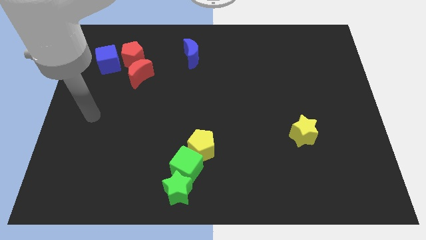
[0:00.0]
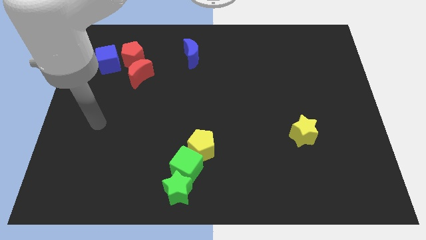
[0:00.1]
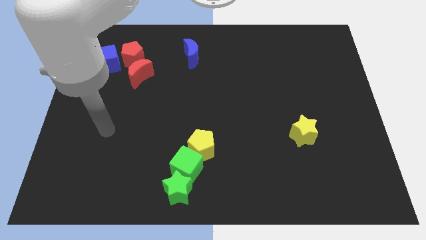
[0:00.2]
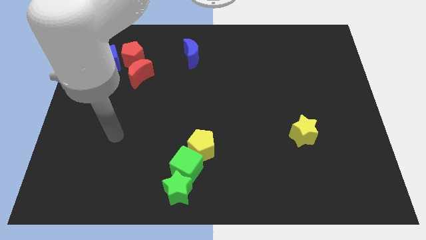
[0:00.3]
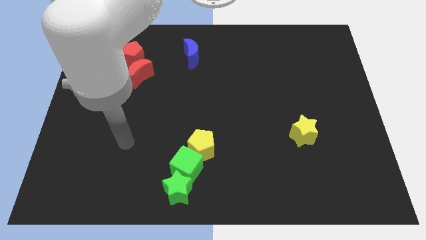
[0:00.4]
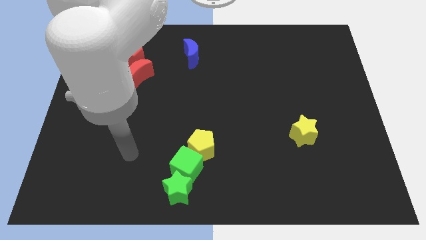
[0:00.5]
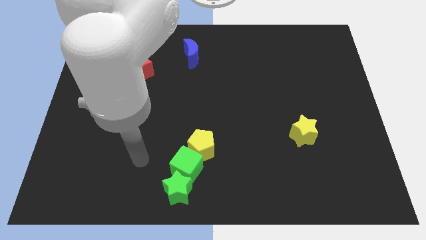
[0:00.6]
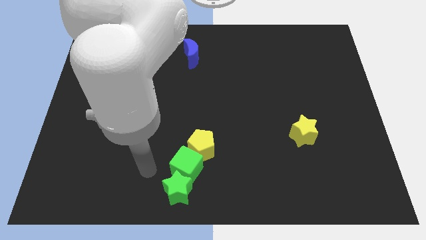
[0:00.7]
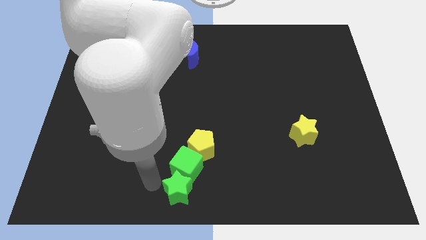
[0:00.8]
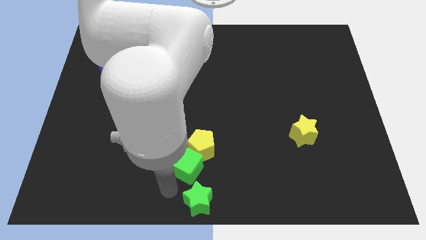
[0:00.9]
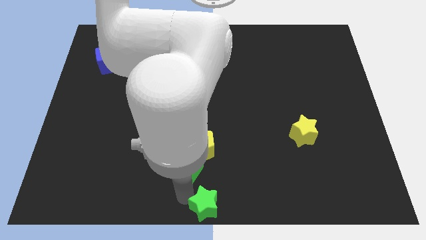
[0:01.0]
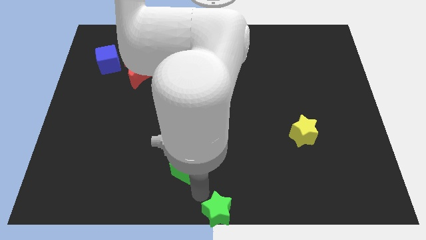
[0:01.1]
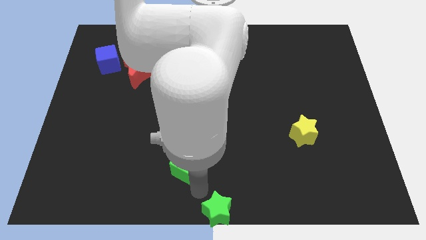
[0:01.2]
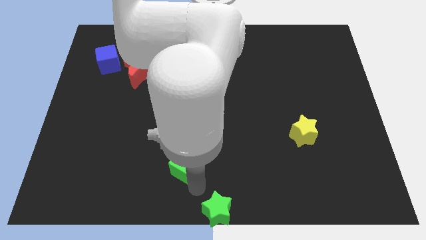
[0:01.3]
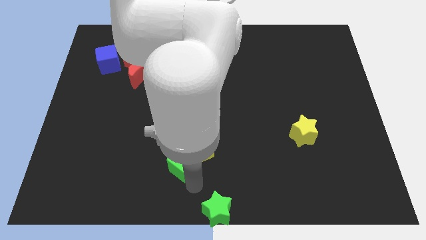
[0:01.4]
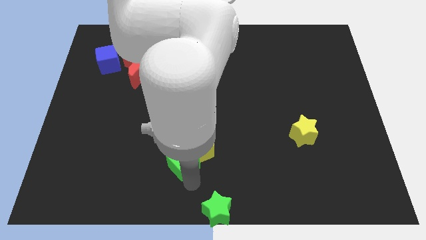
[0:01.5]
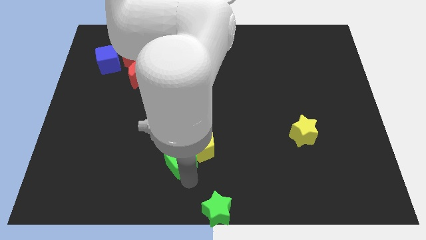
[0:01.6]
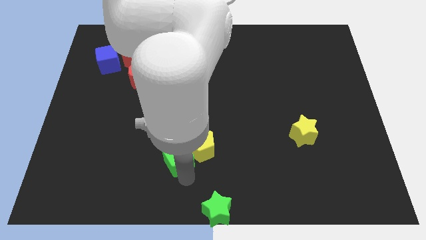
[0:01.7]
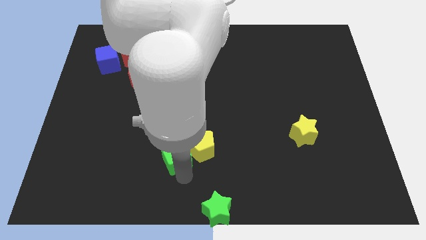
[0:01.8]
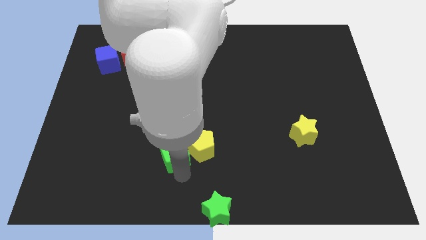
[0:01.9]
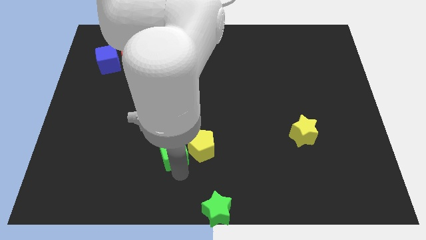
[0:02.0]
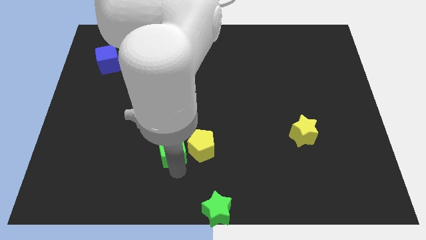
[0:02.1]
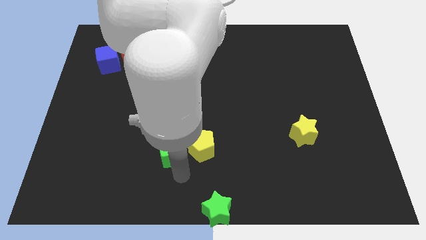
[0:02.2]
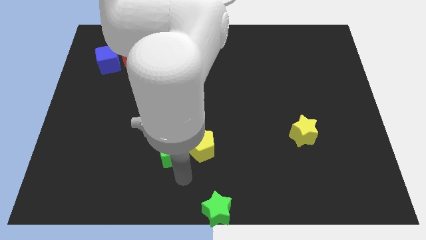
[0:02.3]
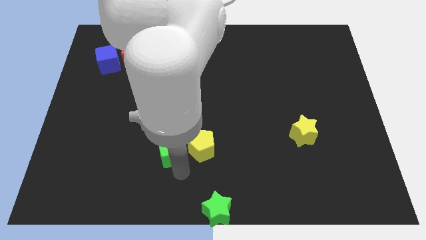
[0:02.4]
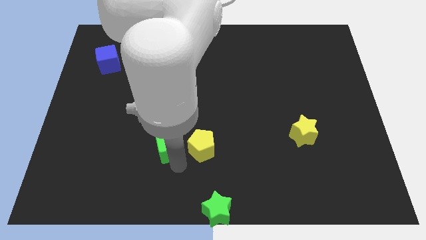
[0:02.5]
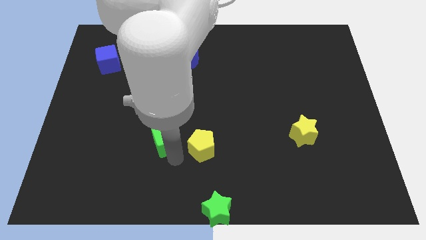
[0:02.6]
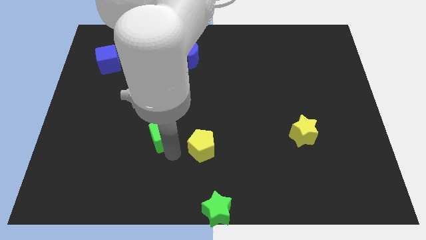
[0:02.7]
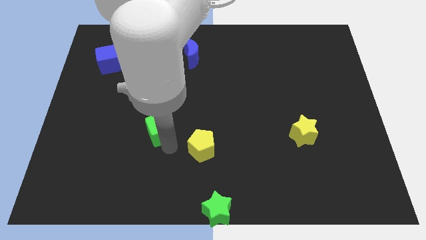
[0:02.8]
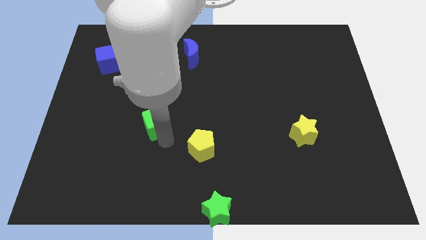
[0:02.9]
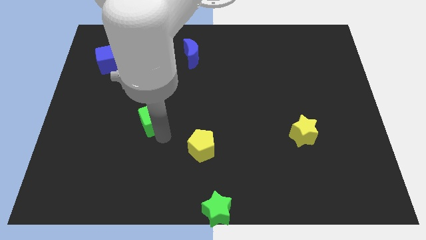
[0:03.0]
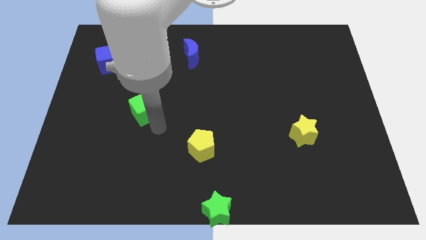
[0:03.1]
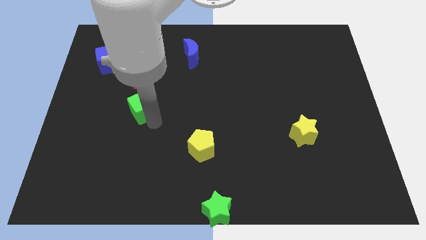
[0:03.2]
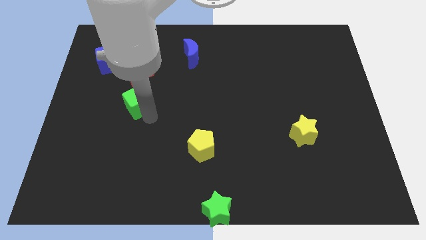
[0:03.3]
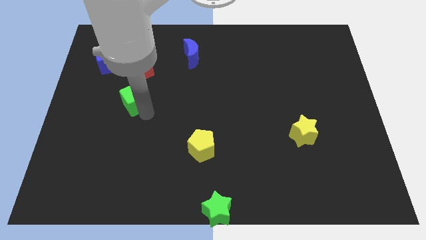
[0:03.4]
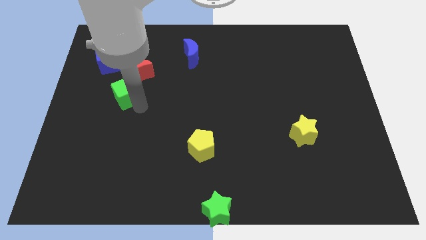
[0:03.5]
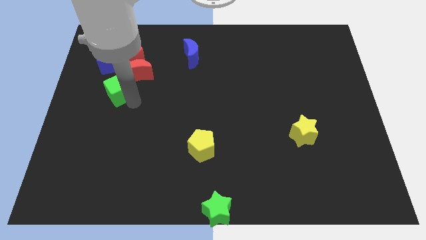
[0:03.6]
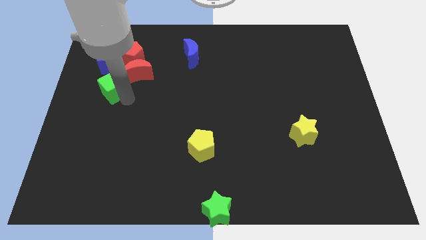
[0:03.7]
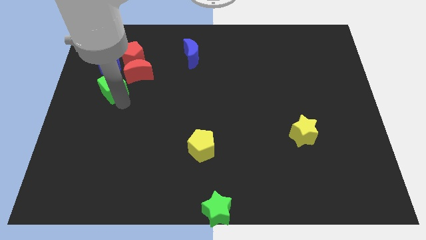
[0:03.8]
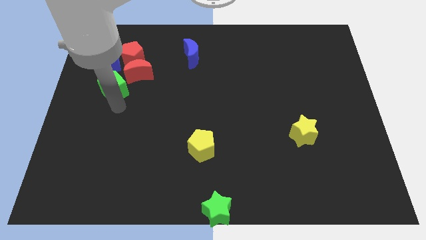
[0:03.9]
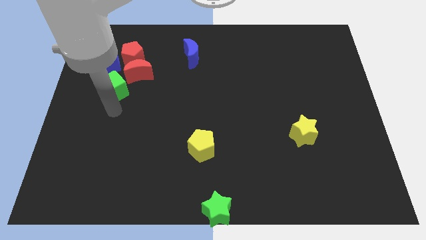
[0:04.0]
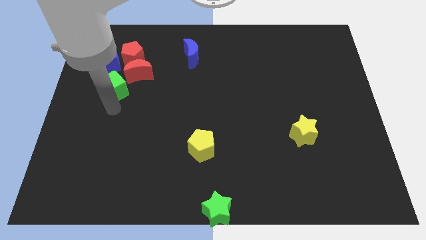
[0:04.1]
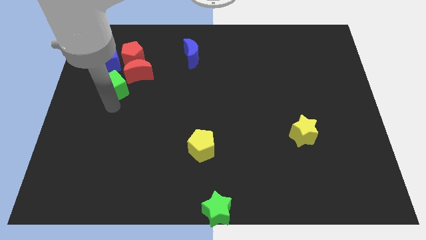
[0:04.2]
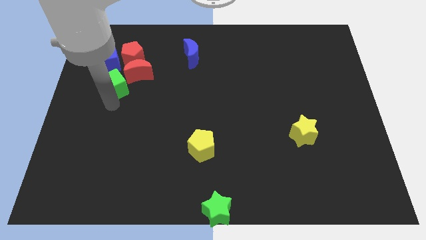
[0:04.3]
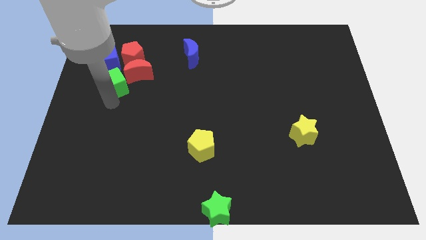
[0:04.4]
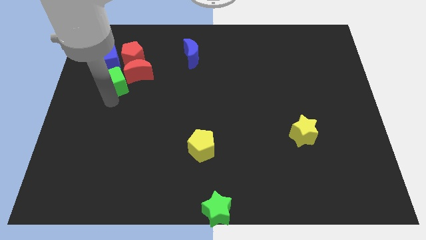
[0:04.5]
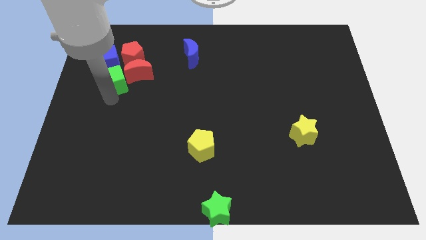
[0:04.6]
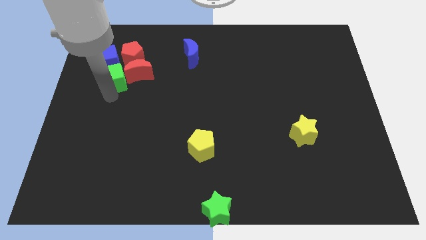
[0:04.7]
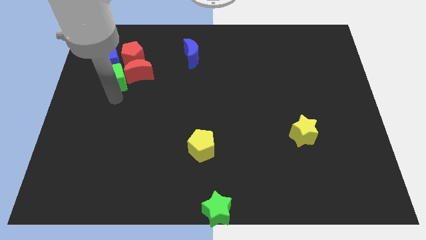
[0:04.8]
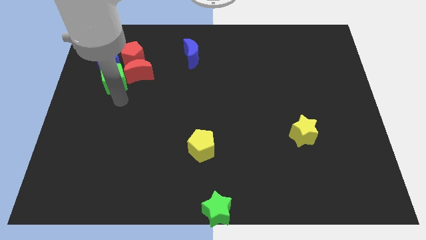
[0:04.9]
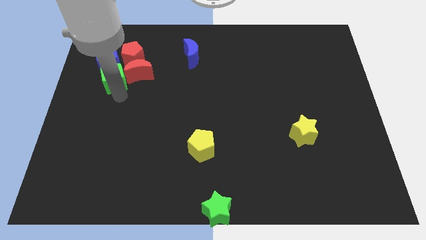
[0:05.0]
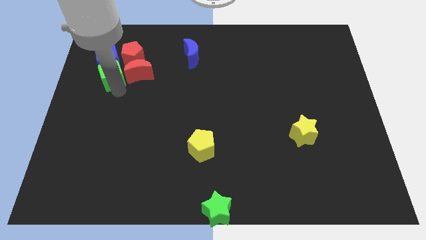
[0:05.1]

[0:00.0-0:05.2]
slide the green cube towards the blue cube

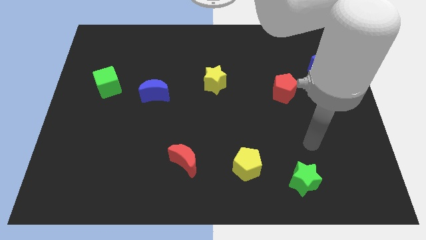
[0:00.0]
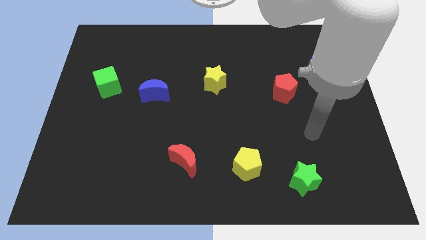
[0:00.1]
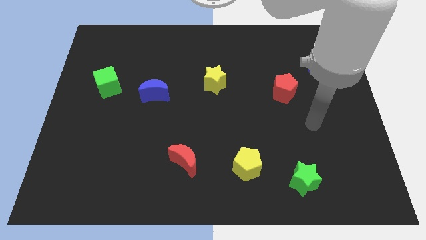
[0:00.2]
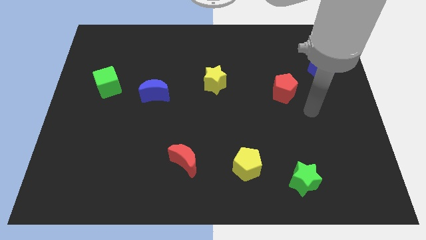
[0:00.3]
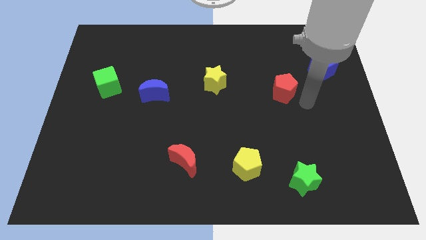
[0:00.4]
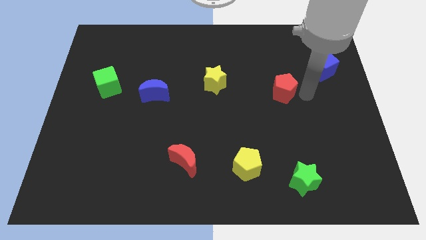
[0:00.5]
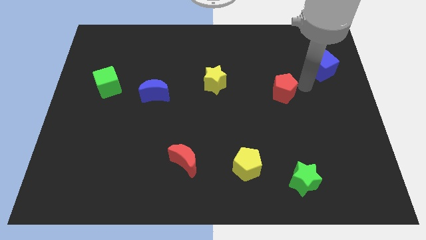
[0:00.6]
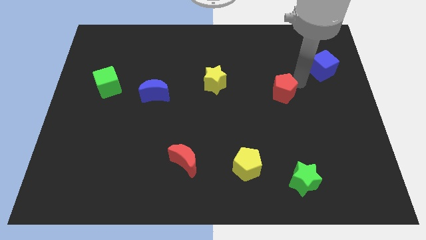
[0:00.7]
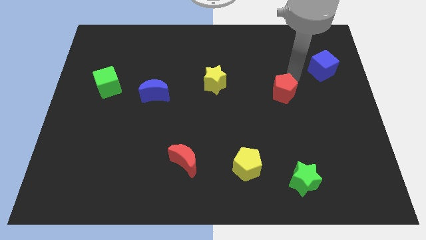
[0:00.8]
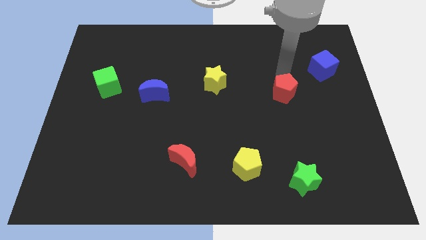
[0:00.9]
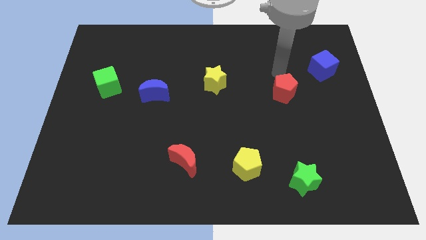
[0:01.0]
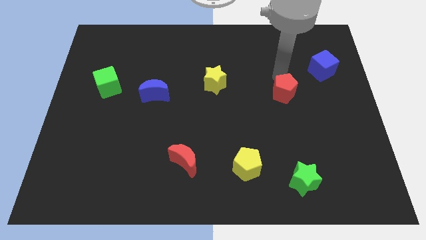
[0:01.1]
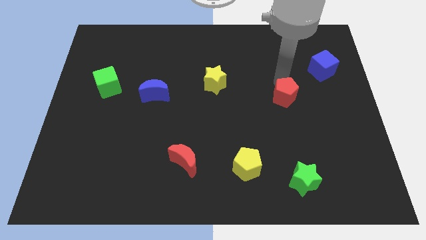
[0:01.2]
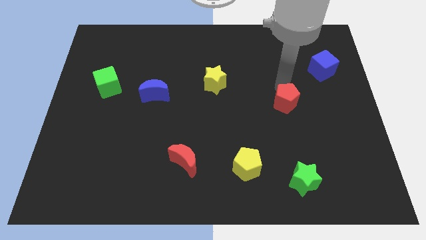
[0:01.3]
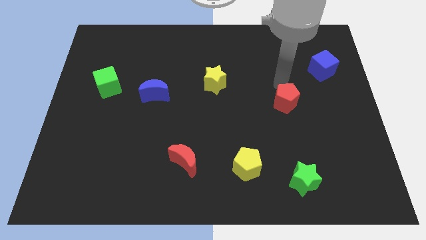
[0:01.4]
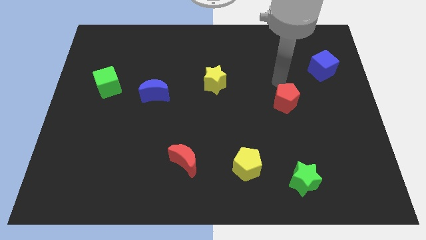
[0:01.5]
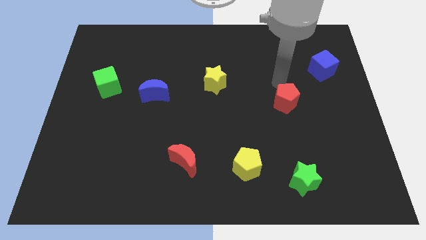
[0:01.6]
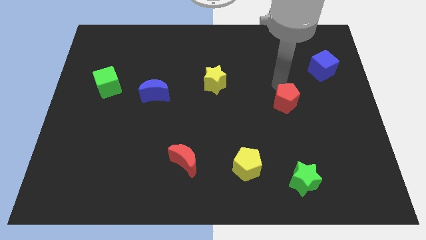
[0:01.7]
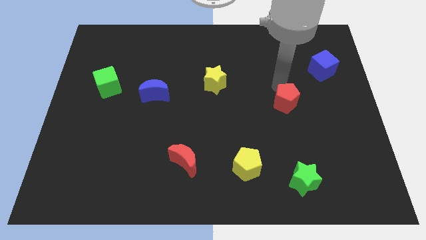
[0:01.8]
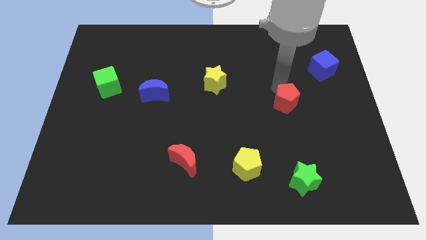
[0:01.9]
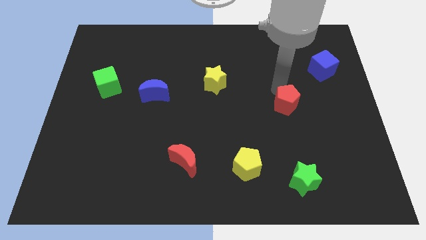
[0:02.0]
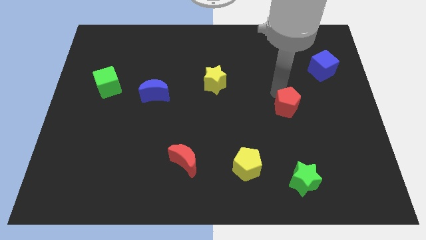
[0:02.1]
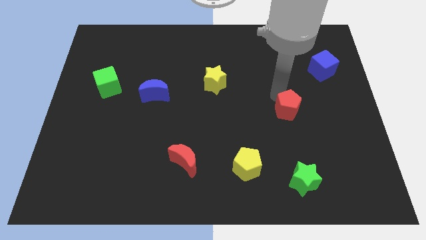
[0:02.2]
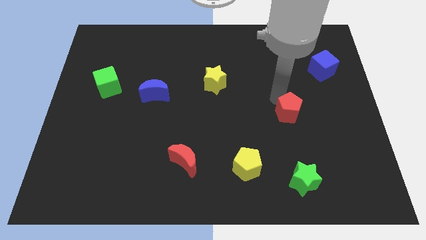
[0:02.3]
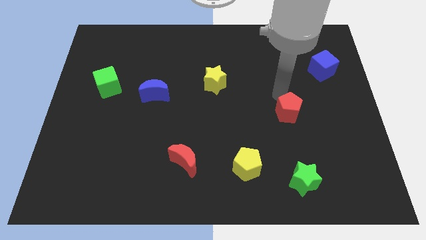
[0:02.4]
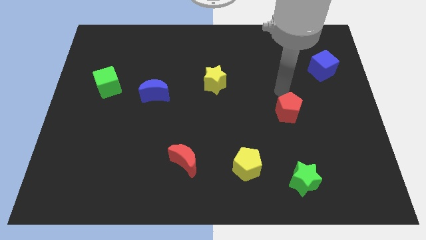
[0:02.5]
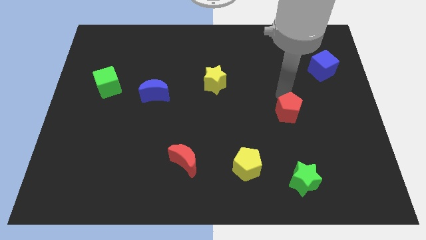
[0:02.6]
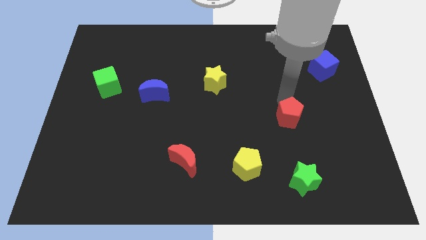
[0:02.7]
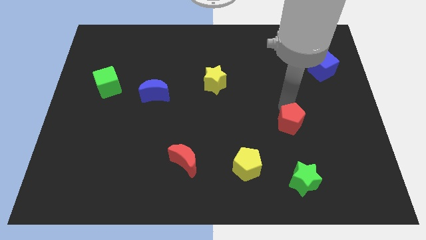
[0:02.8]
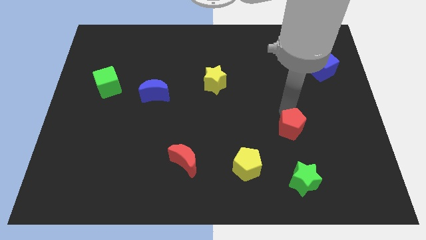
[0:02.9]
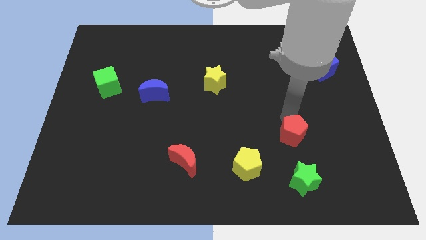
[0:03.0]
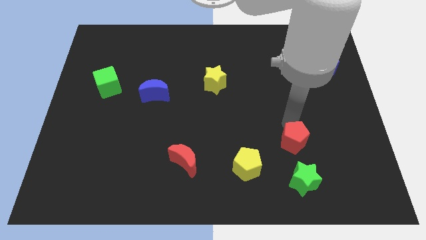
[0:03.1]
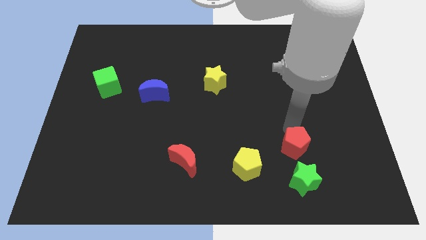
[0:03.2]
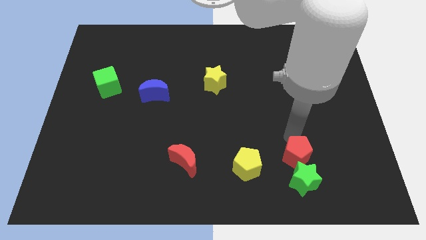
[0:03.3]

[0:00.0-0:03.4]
push the red pentagon close to the green star
